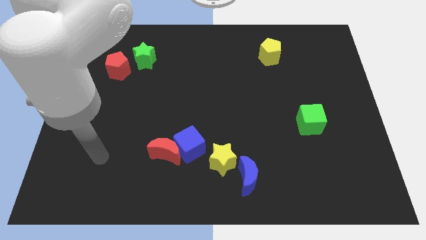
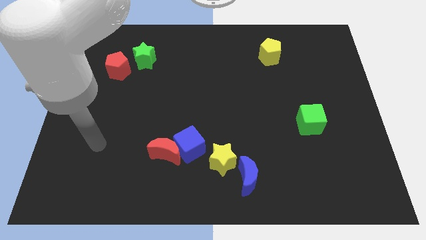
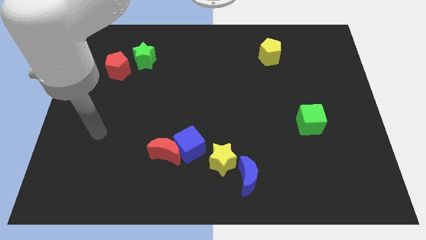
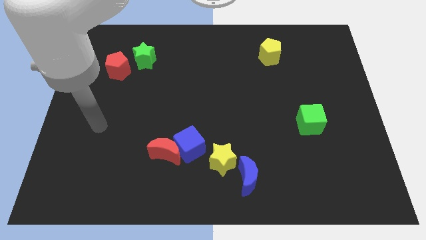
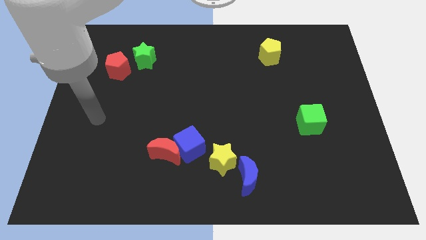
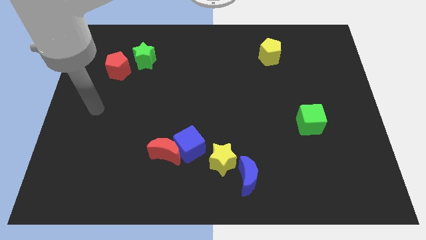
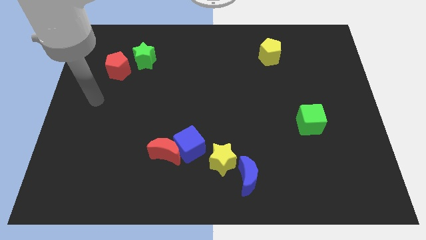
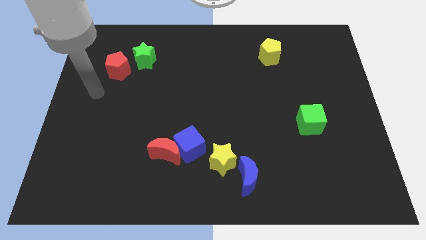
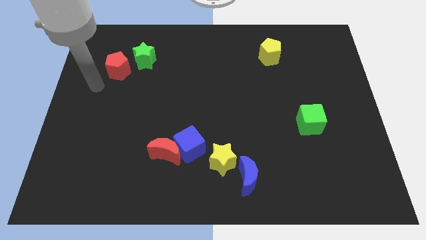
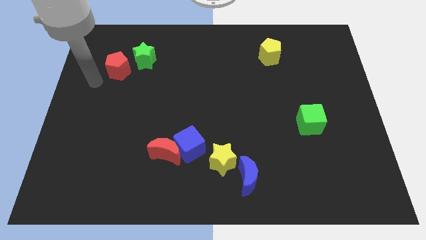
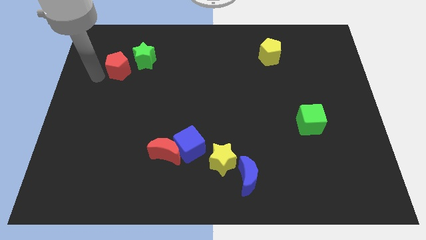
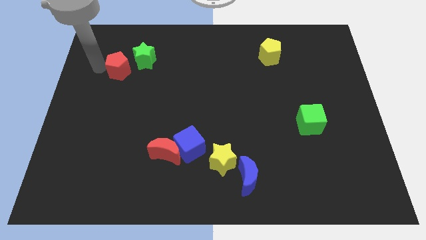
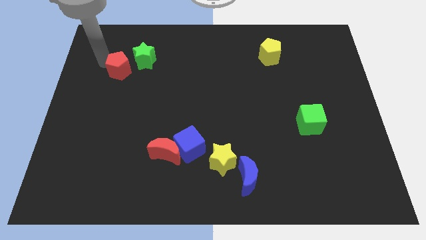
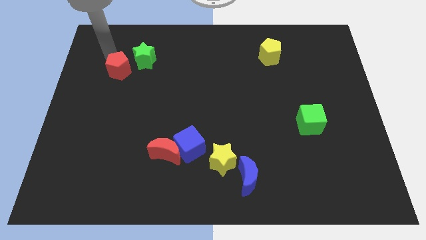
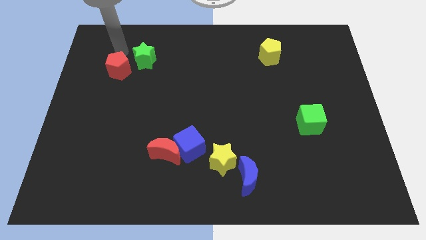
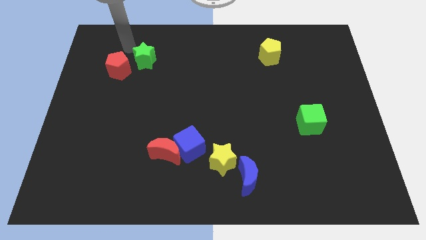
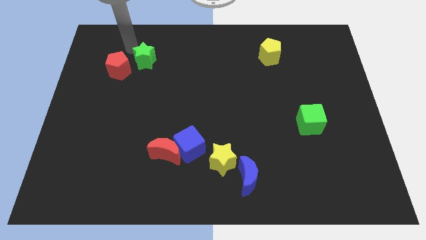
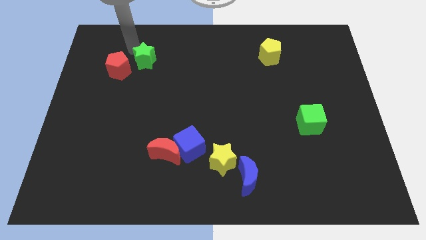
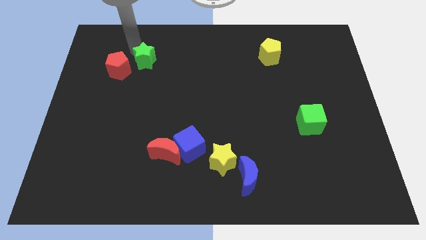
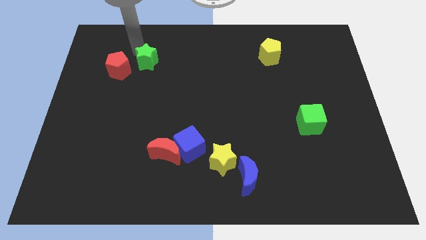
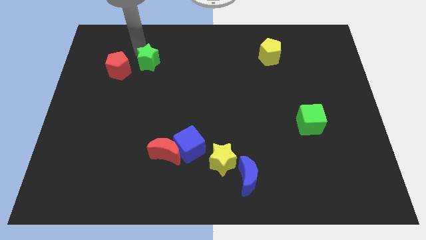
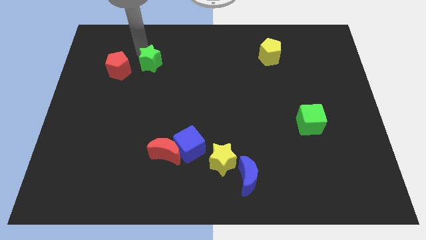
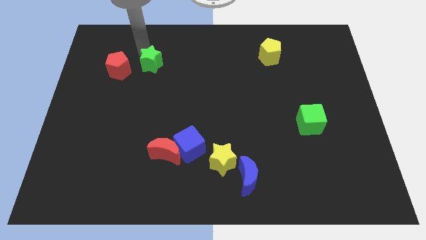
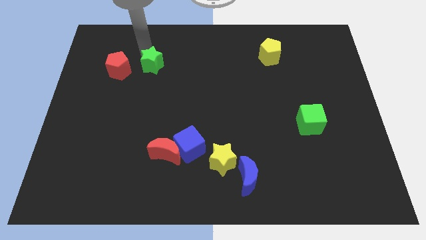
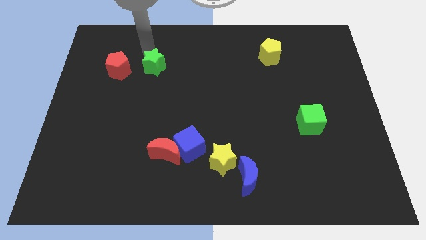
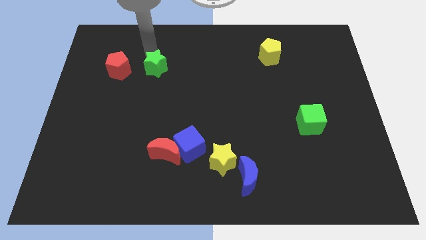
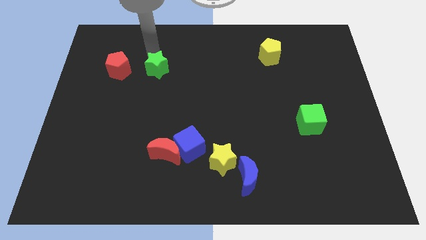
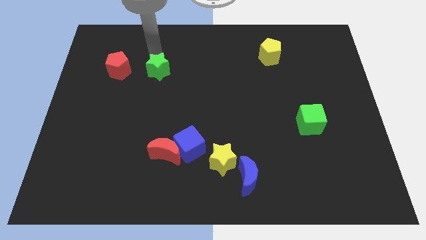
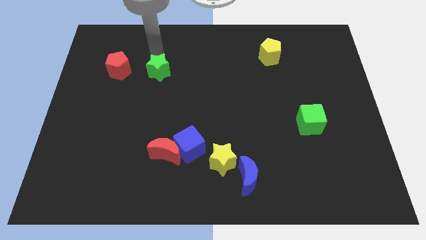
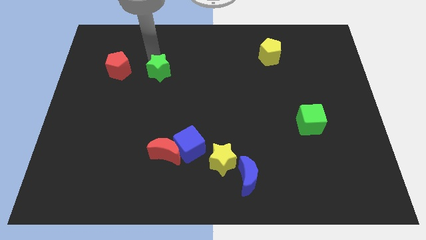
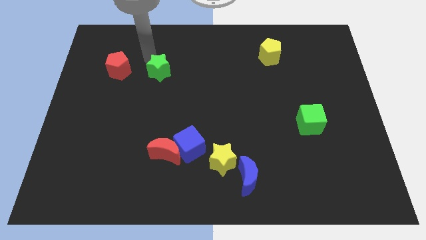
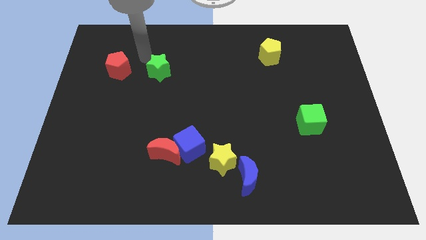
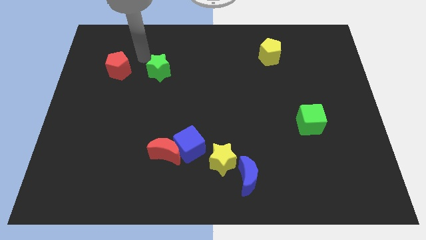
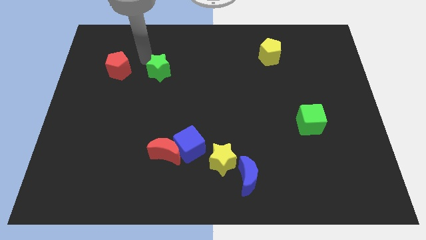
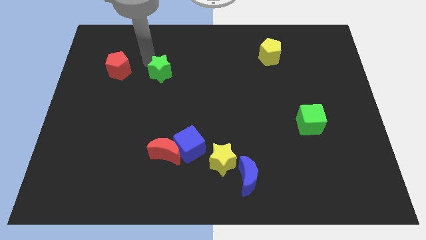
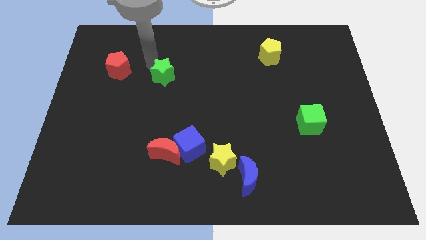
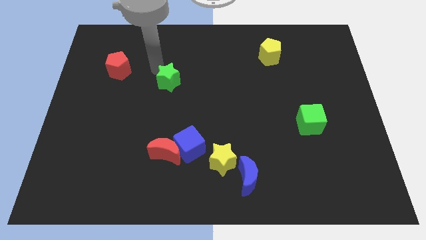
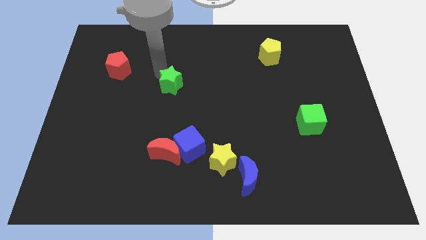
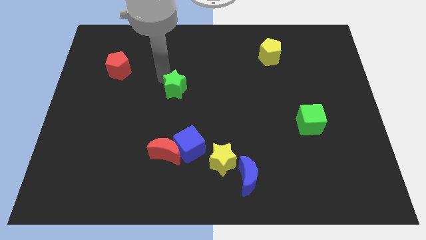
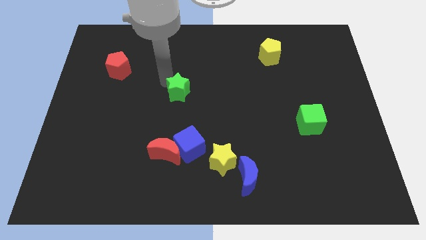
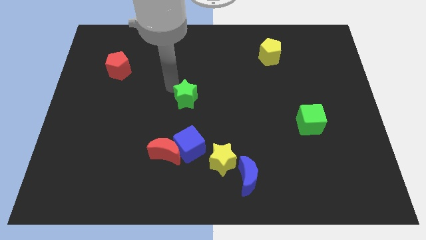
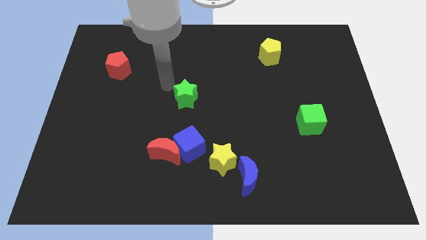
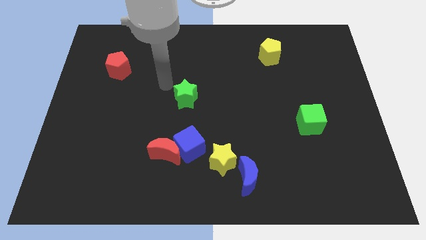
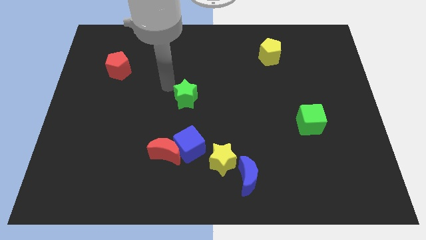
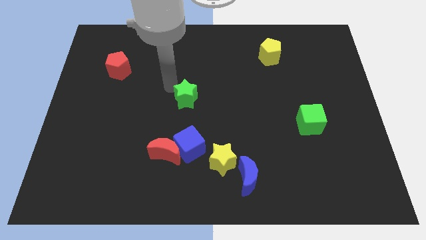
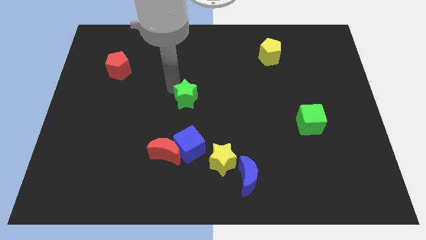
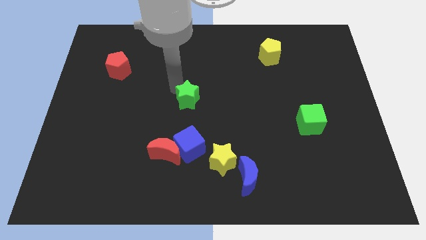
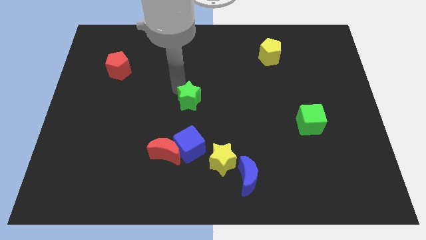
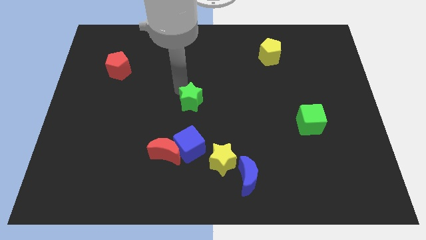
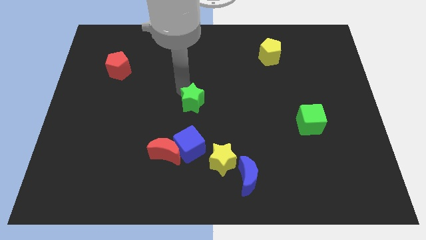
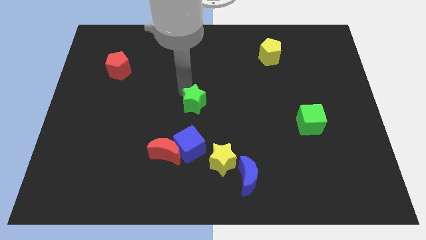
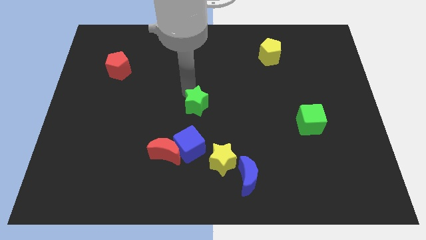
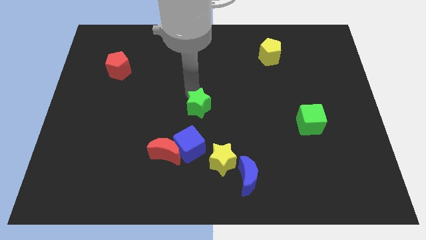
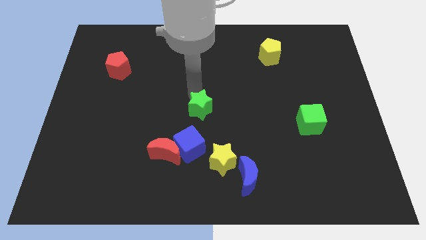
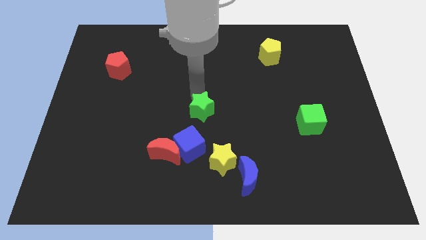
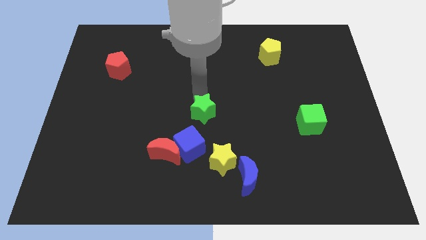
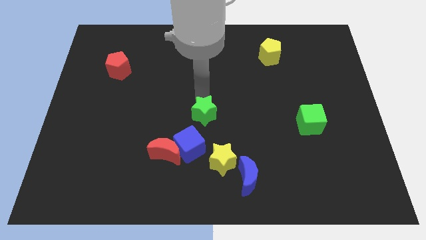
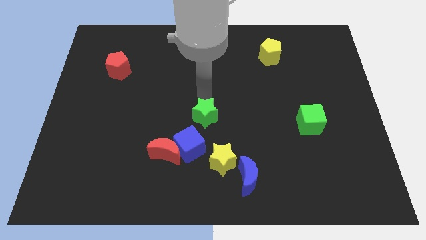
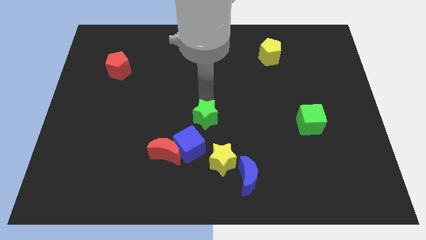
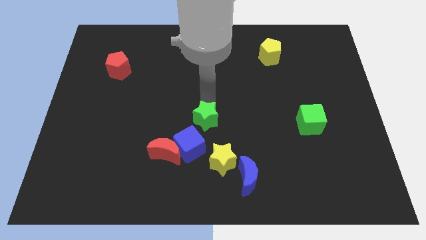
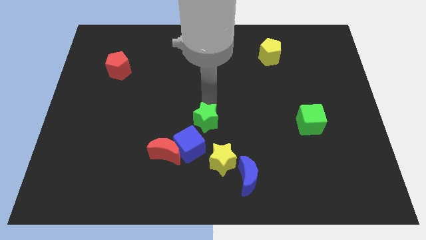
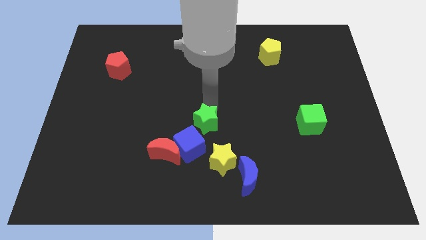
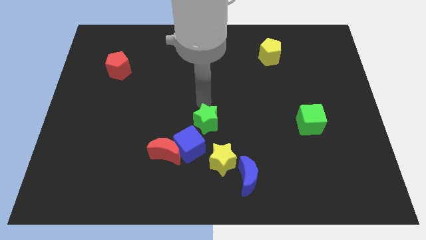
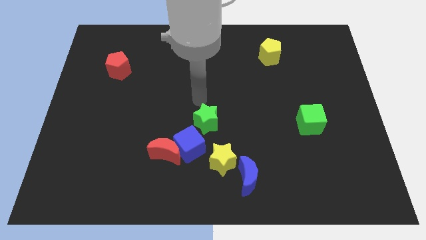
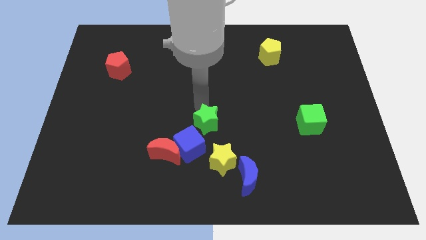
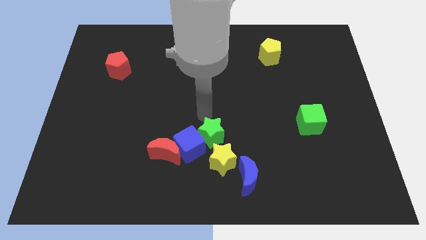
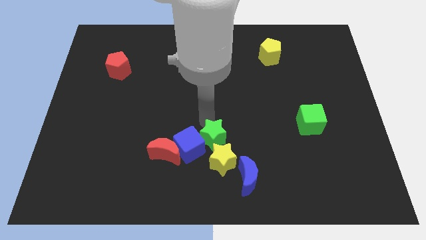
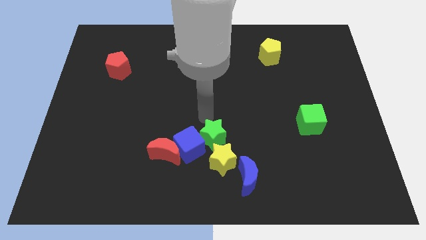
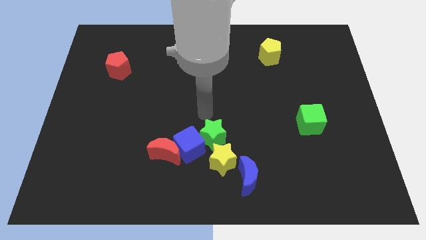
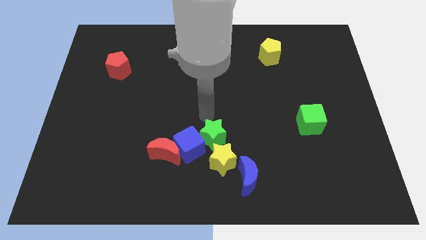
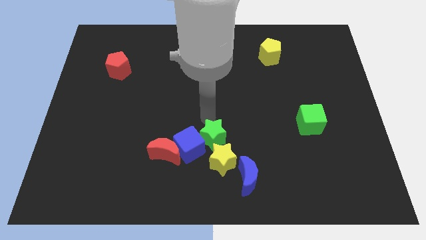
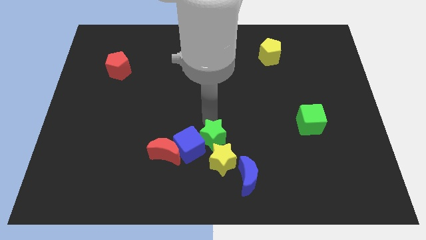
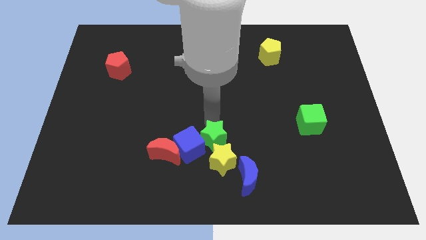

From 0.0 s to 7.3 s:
move the green star to the yellow star
